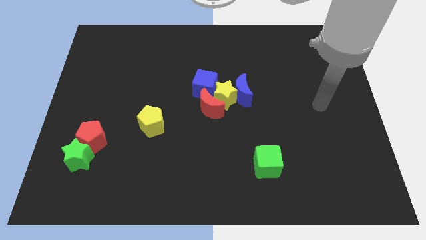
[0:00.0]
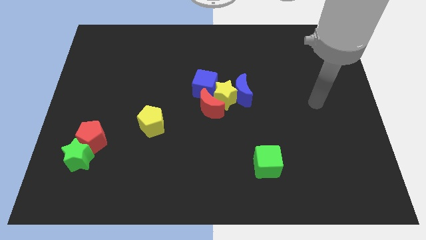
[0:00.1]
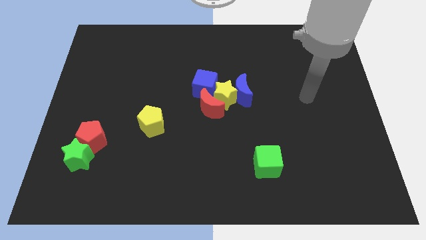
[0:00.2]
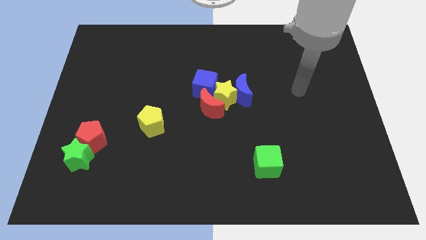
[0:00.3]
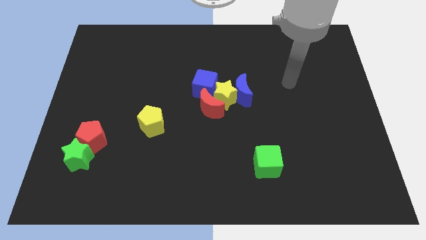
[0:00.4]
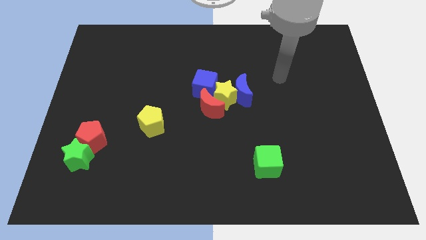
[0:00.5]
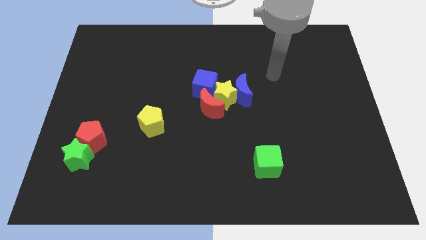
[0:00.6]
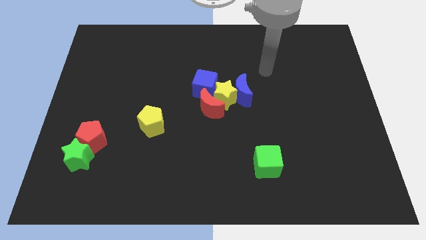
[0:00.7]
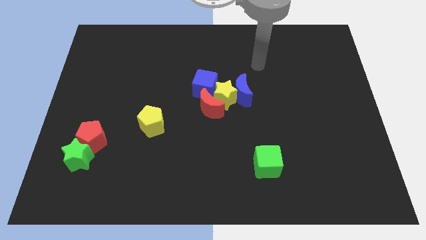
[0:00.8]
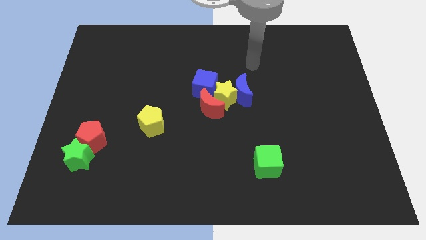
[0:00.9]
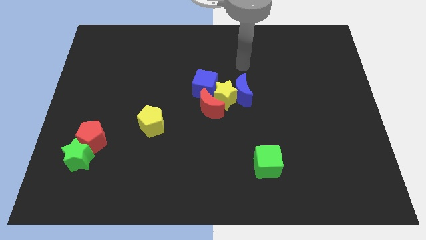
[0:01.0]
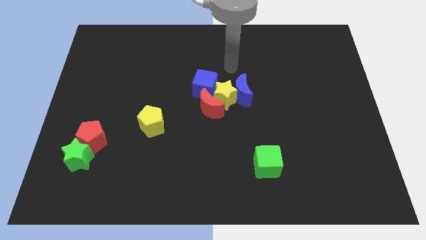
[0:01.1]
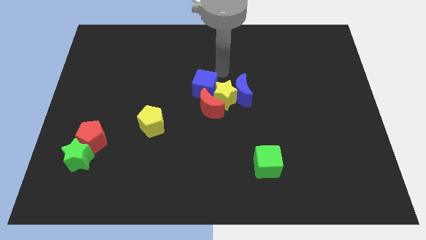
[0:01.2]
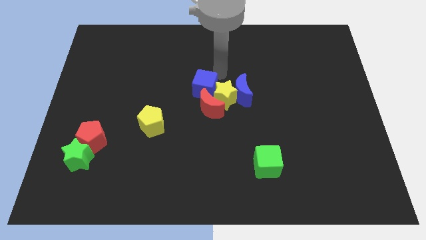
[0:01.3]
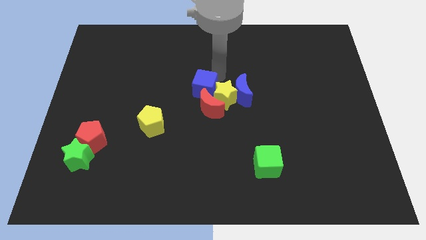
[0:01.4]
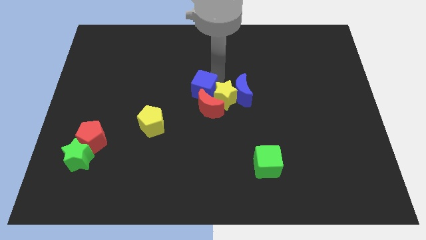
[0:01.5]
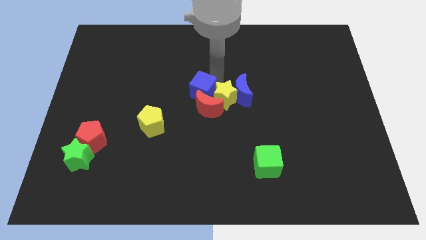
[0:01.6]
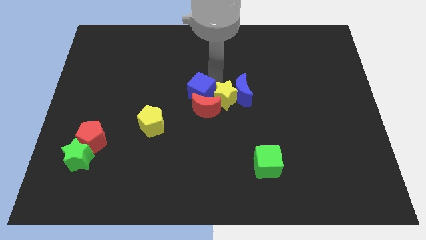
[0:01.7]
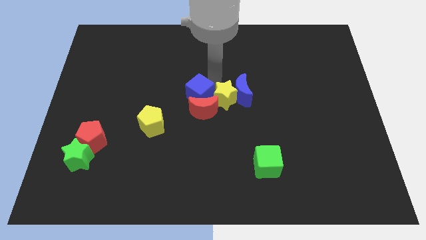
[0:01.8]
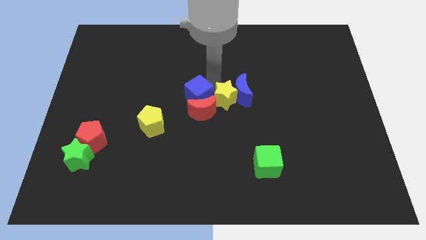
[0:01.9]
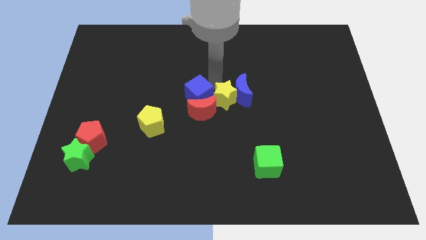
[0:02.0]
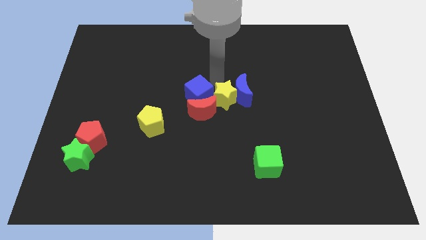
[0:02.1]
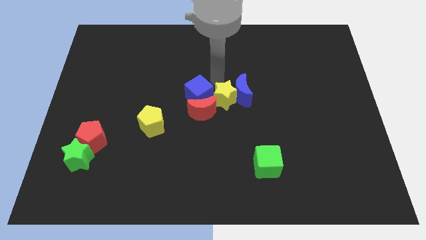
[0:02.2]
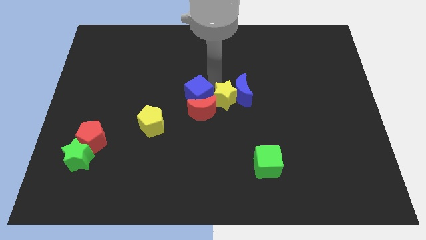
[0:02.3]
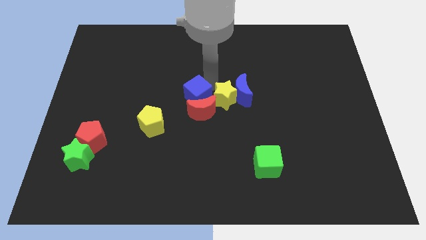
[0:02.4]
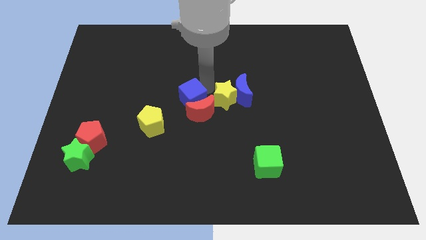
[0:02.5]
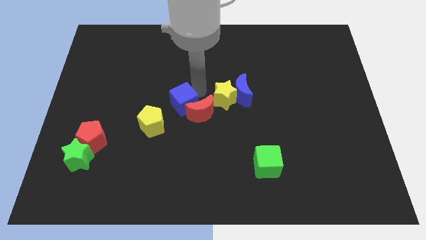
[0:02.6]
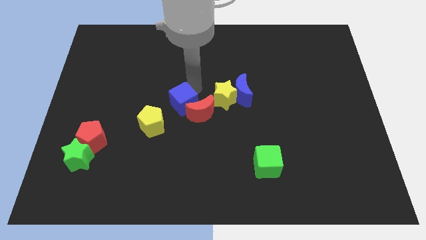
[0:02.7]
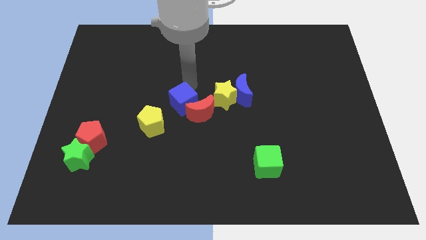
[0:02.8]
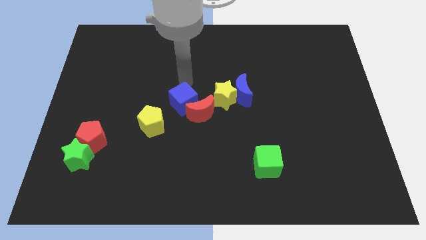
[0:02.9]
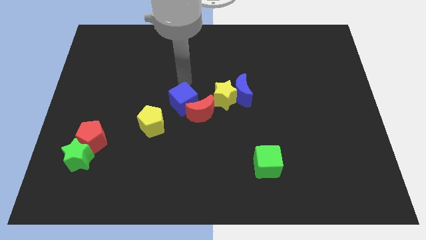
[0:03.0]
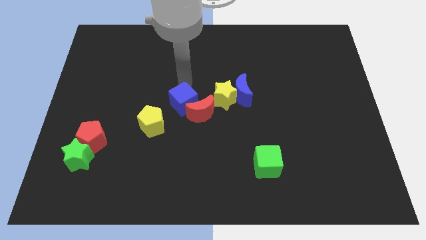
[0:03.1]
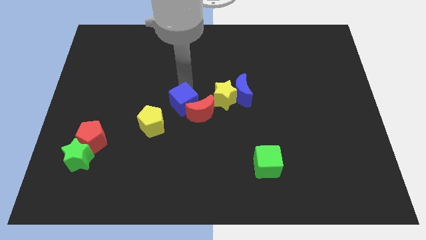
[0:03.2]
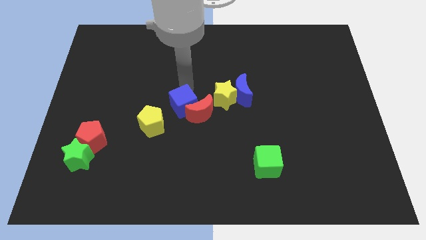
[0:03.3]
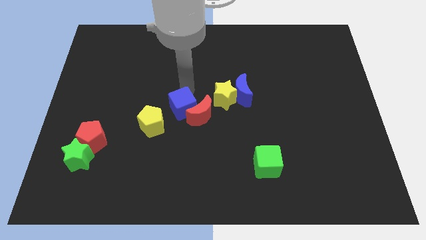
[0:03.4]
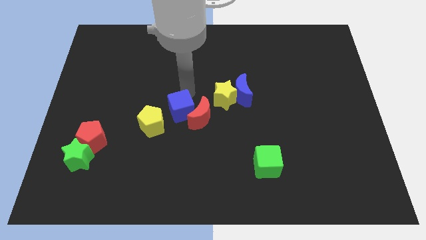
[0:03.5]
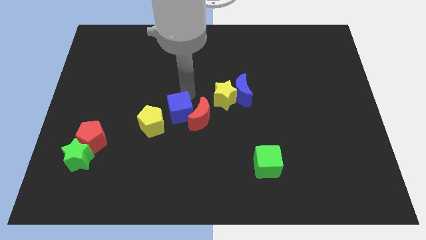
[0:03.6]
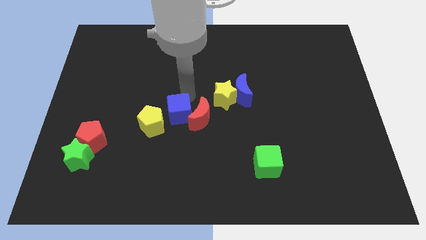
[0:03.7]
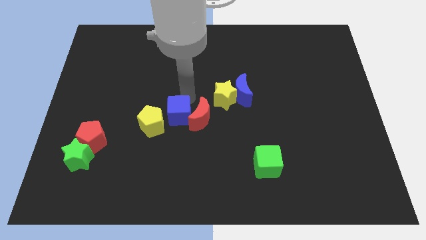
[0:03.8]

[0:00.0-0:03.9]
slightly move the blue cube down

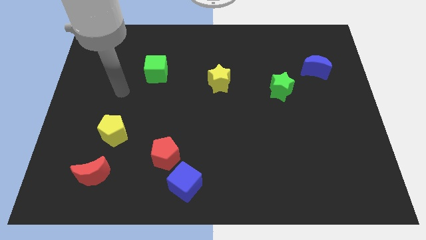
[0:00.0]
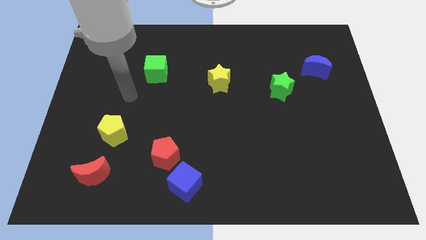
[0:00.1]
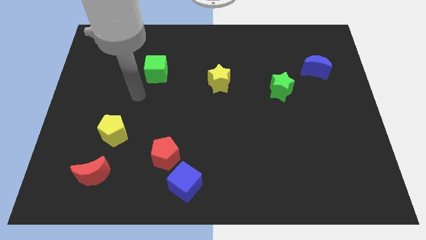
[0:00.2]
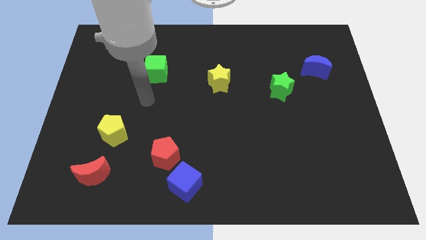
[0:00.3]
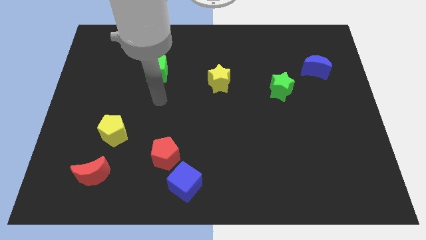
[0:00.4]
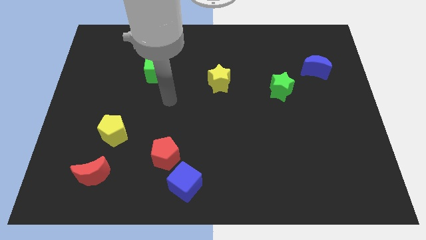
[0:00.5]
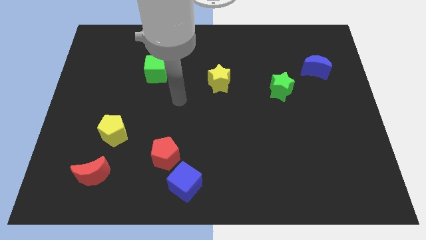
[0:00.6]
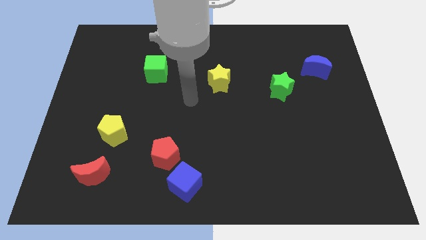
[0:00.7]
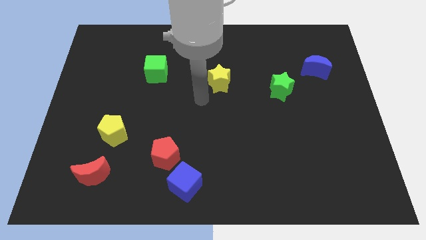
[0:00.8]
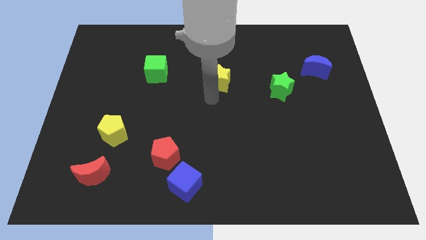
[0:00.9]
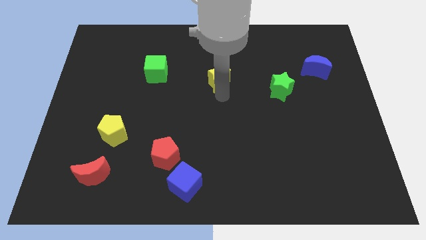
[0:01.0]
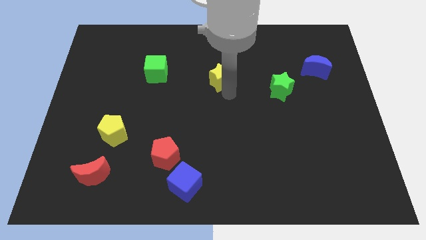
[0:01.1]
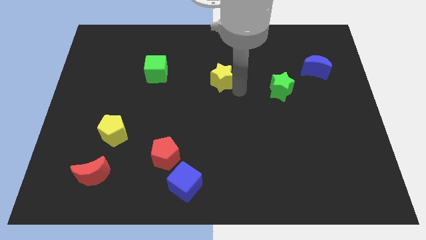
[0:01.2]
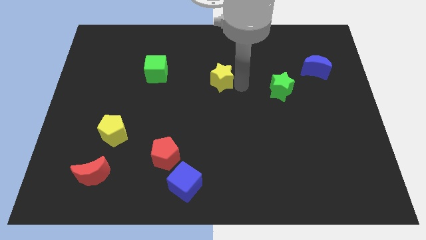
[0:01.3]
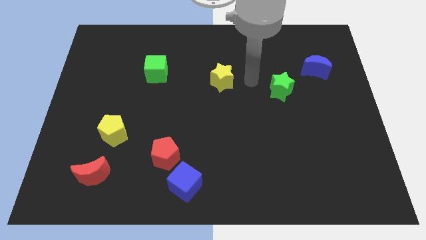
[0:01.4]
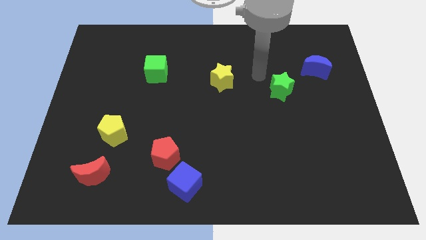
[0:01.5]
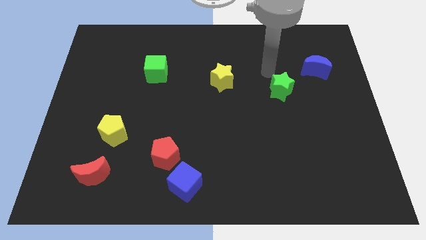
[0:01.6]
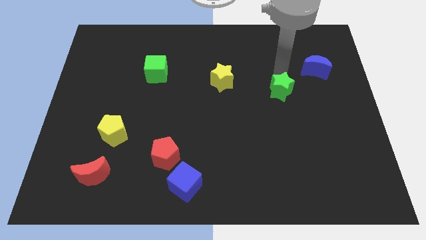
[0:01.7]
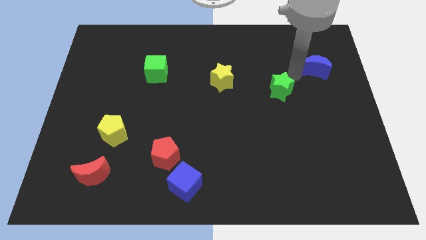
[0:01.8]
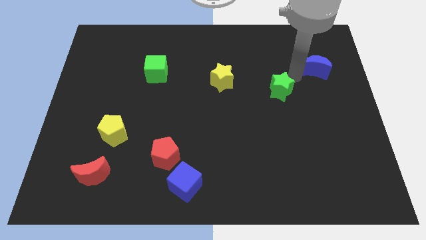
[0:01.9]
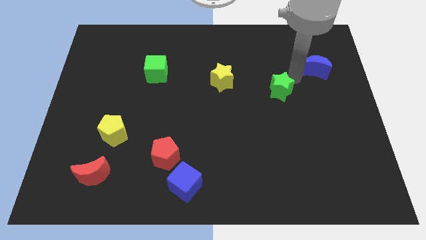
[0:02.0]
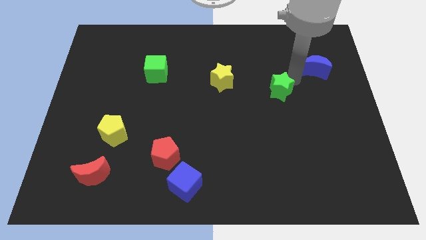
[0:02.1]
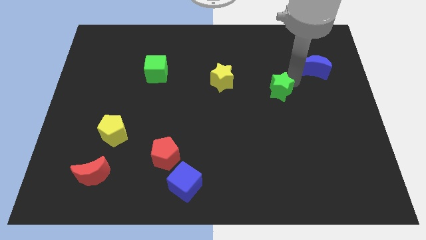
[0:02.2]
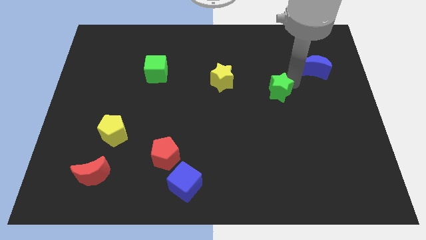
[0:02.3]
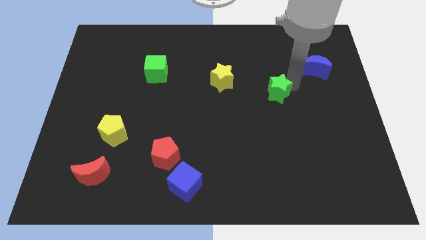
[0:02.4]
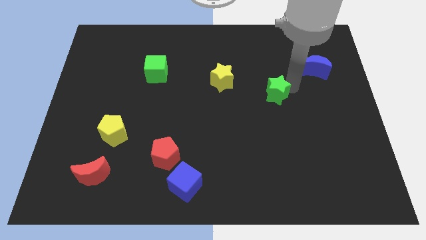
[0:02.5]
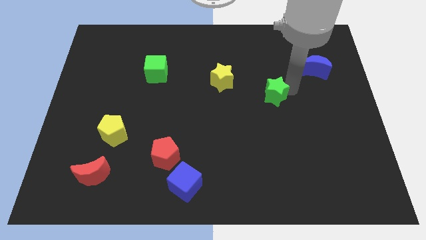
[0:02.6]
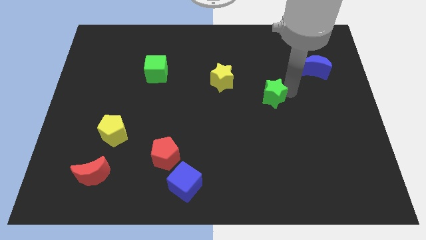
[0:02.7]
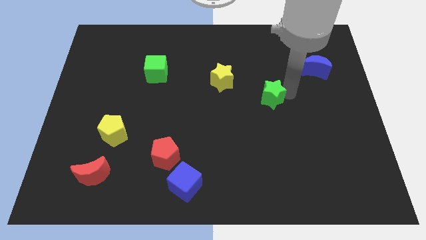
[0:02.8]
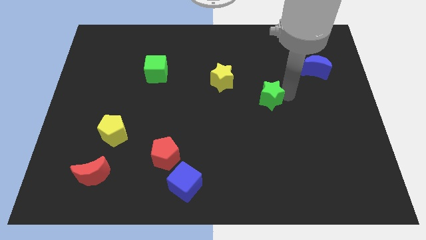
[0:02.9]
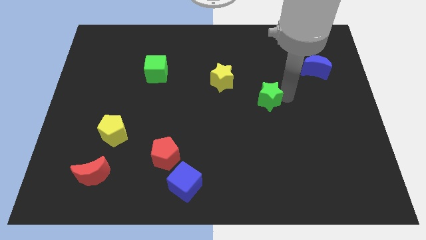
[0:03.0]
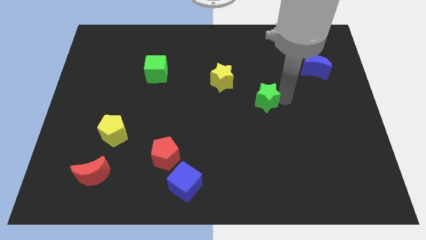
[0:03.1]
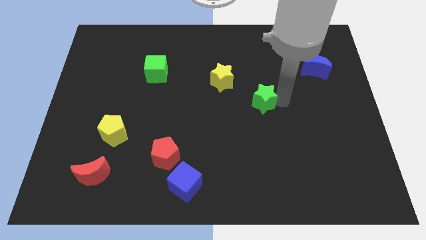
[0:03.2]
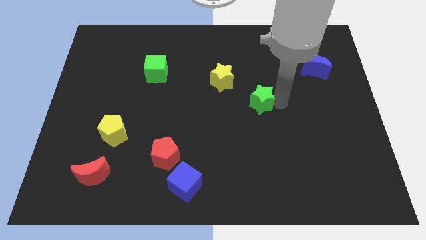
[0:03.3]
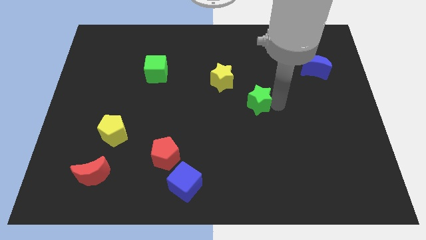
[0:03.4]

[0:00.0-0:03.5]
slide the green star a little bit downwards and left

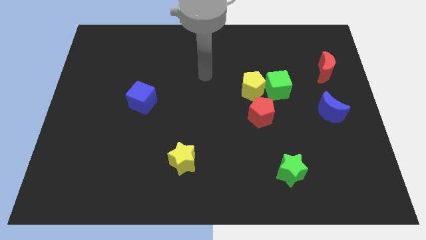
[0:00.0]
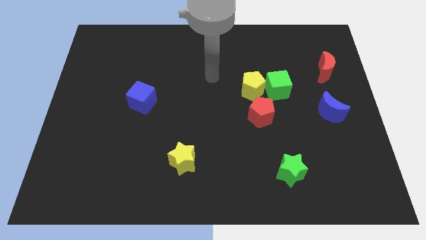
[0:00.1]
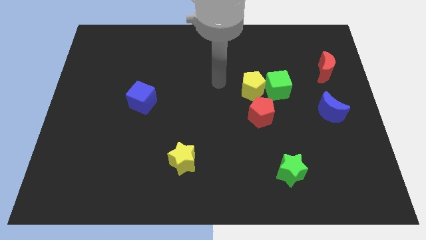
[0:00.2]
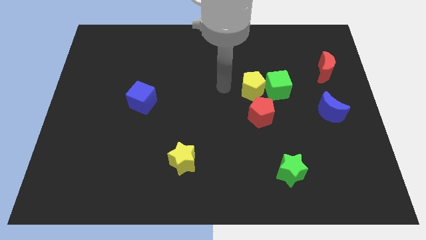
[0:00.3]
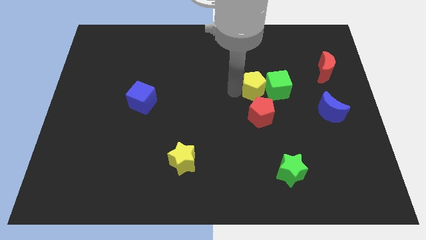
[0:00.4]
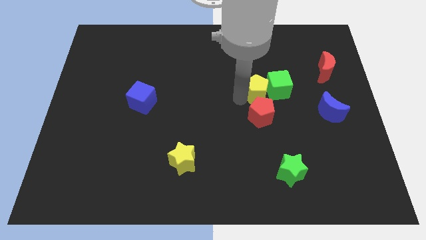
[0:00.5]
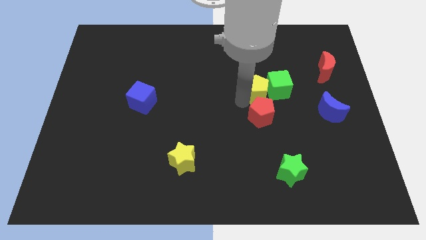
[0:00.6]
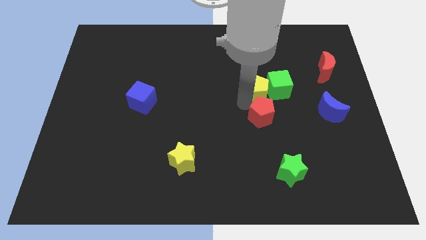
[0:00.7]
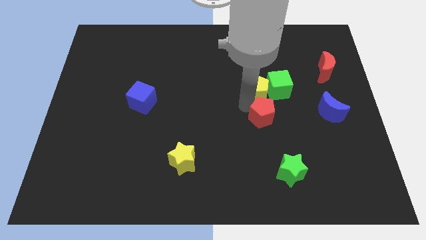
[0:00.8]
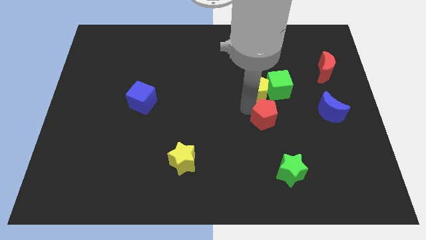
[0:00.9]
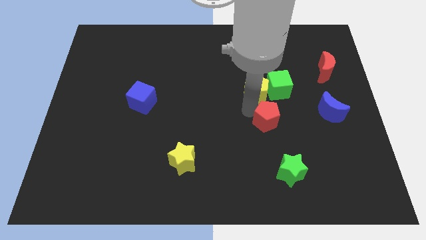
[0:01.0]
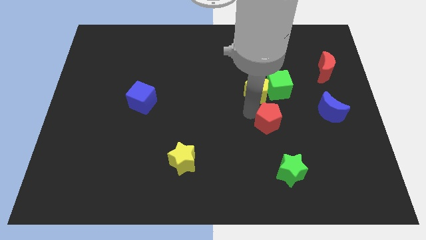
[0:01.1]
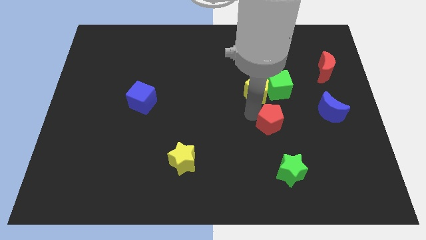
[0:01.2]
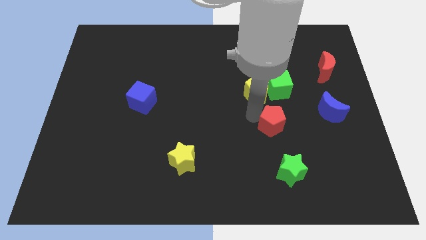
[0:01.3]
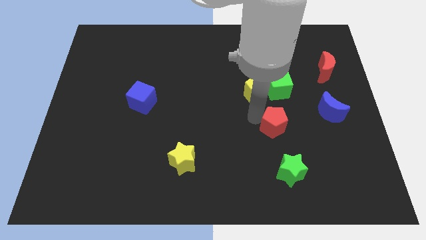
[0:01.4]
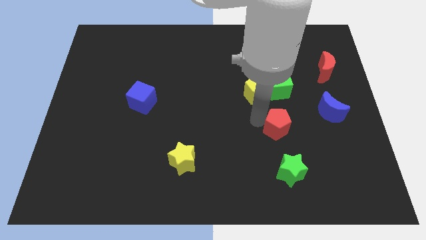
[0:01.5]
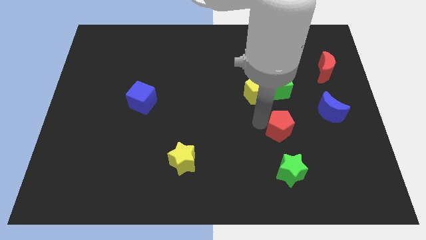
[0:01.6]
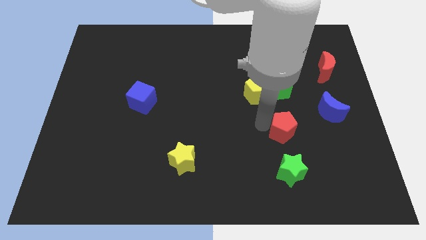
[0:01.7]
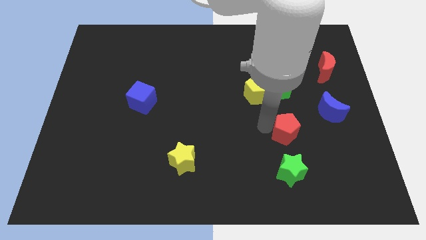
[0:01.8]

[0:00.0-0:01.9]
slightly slide the red pentagon down and to the right
